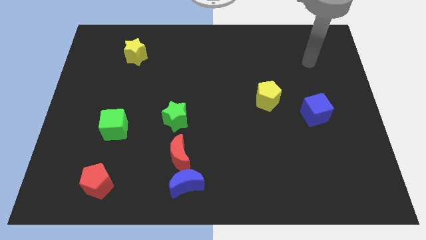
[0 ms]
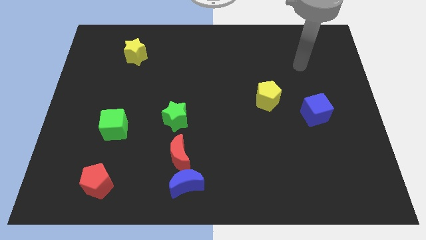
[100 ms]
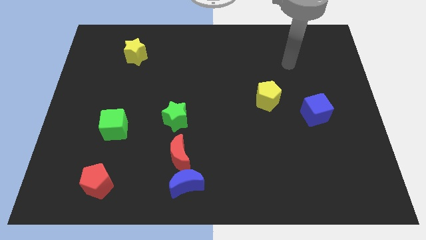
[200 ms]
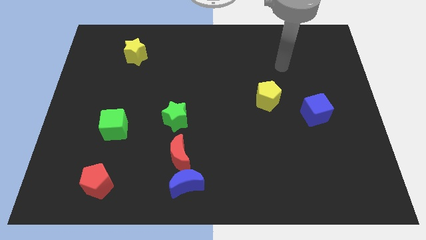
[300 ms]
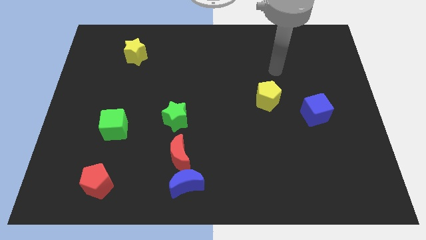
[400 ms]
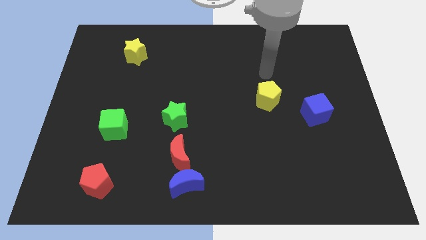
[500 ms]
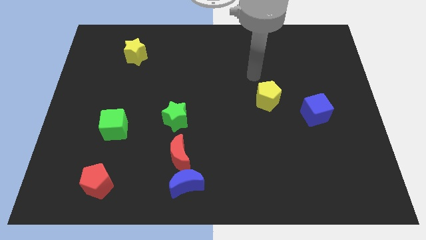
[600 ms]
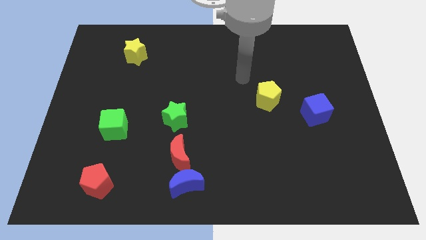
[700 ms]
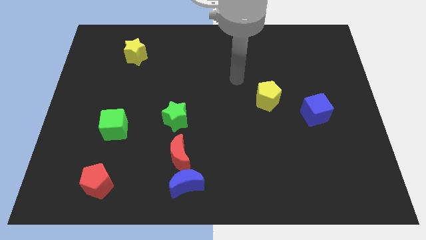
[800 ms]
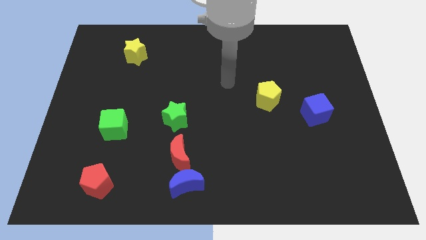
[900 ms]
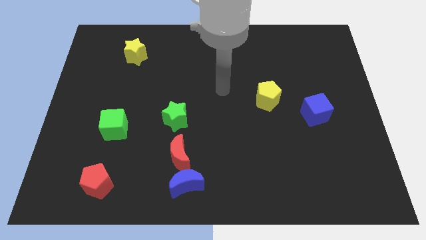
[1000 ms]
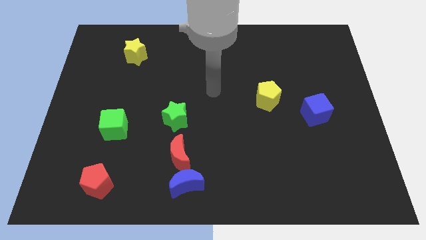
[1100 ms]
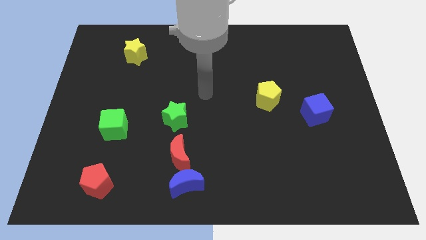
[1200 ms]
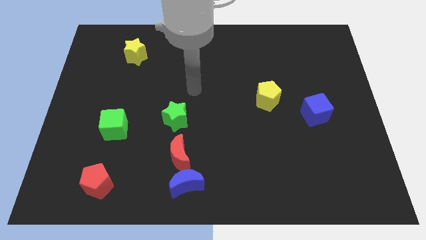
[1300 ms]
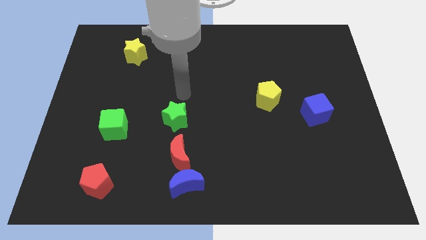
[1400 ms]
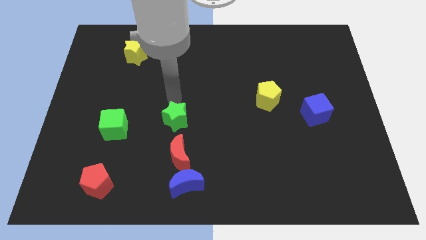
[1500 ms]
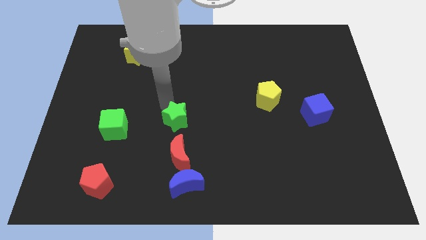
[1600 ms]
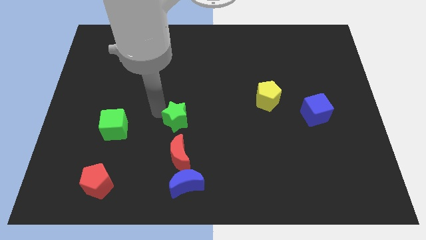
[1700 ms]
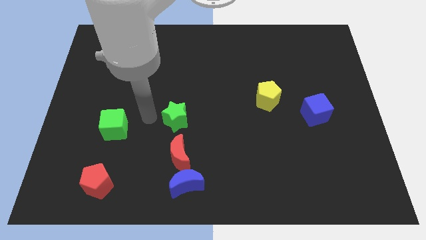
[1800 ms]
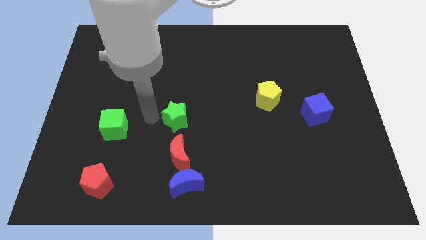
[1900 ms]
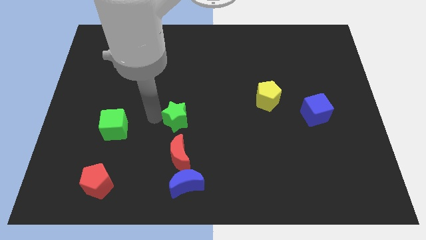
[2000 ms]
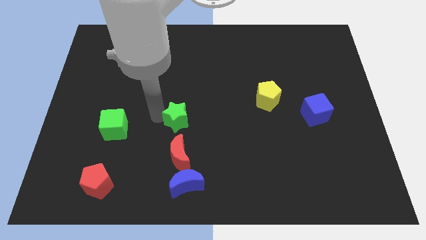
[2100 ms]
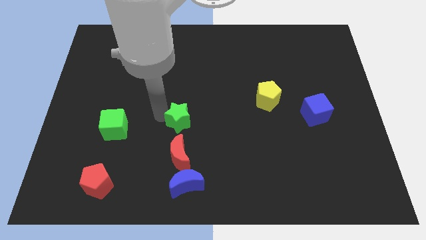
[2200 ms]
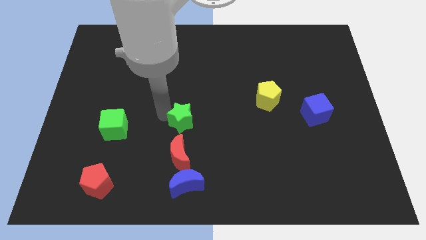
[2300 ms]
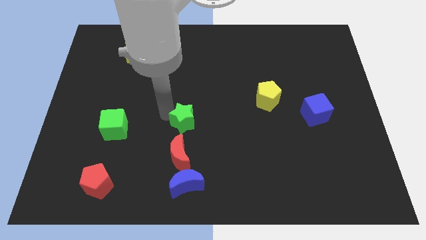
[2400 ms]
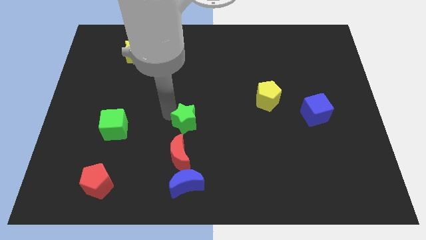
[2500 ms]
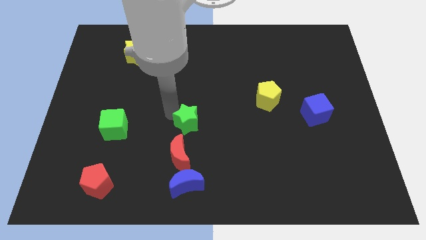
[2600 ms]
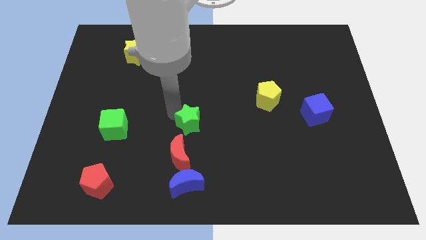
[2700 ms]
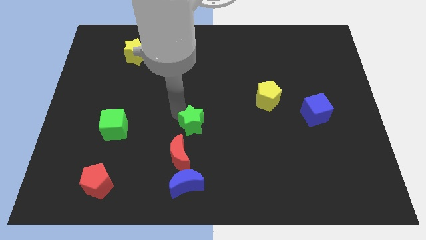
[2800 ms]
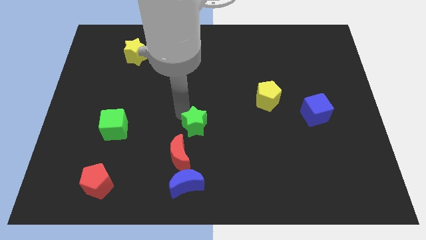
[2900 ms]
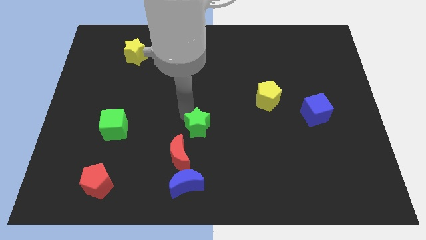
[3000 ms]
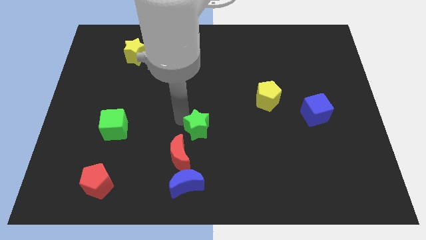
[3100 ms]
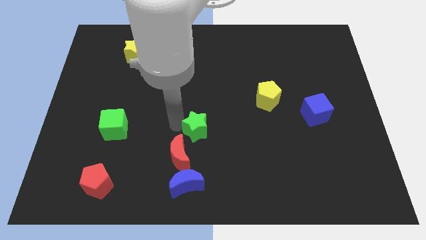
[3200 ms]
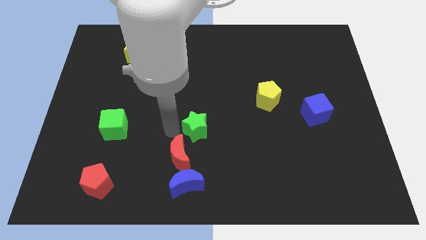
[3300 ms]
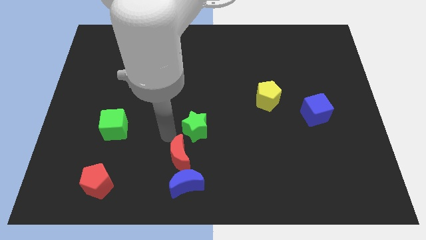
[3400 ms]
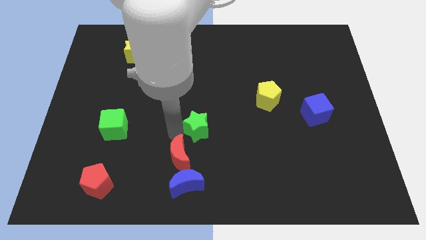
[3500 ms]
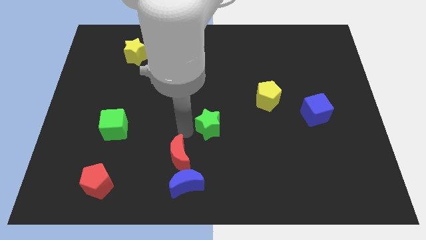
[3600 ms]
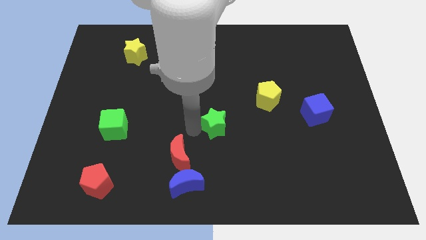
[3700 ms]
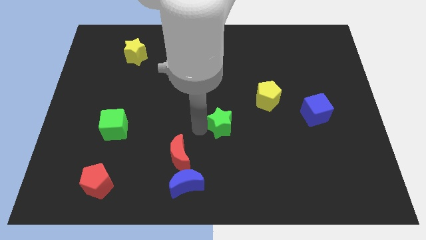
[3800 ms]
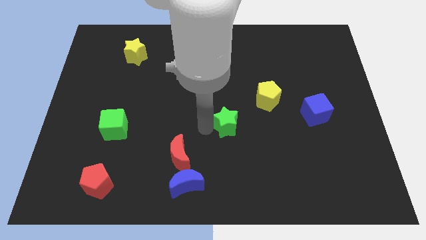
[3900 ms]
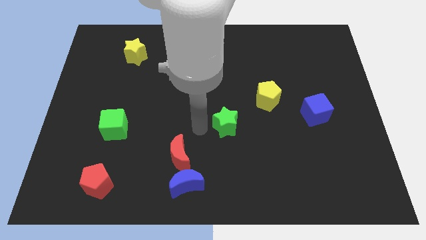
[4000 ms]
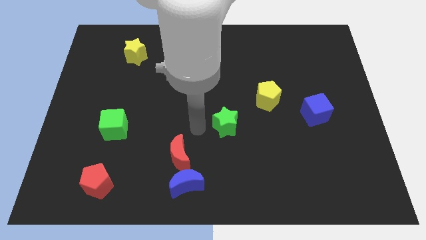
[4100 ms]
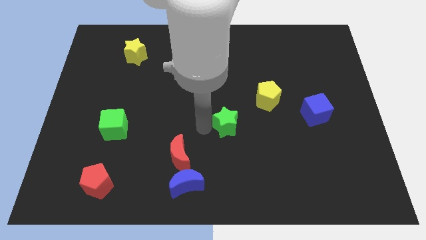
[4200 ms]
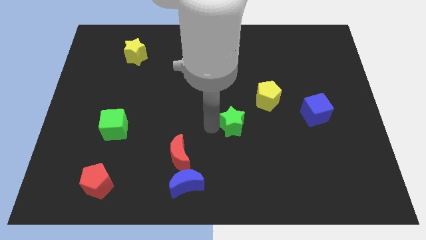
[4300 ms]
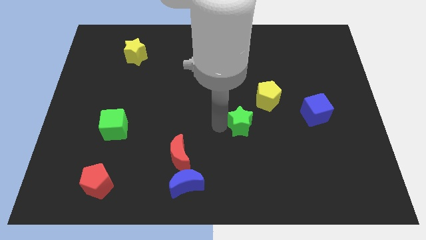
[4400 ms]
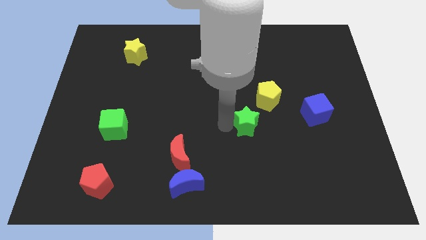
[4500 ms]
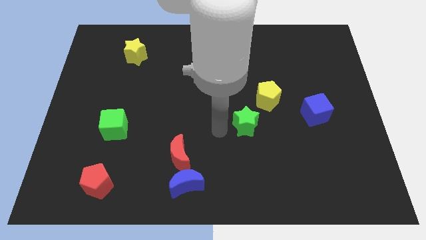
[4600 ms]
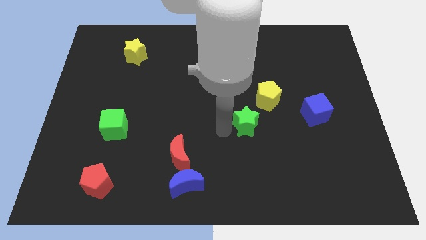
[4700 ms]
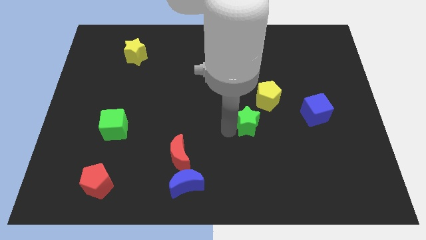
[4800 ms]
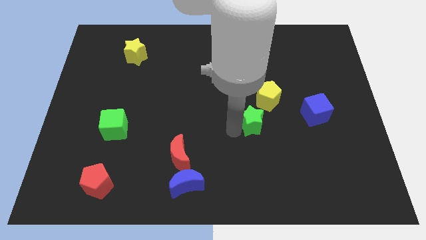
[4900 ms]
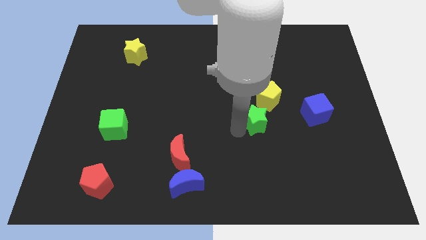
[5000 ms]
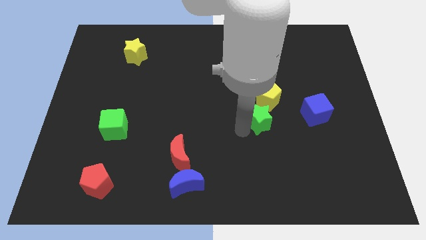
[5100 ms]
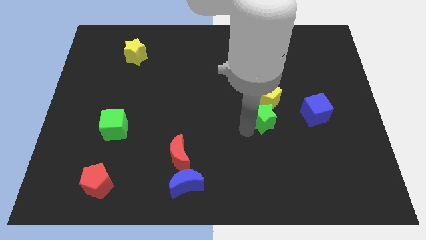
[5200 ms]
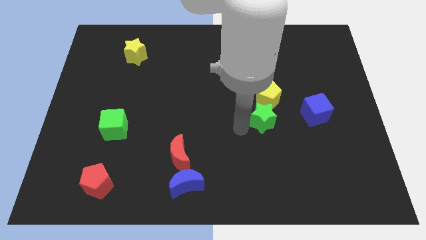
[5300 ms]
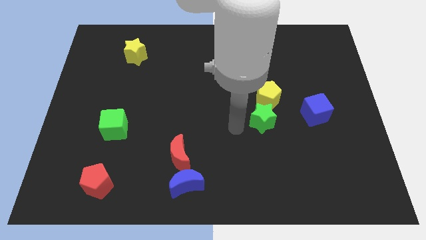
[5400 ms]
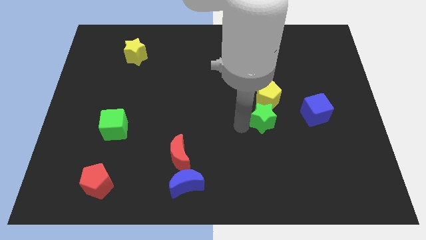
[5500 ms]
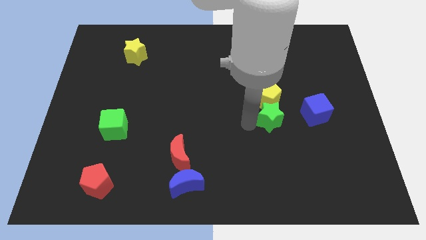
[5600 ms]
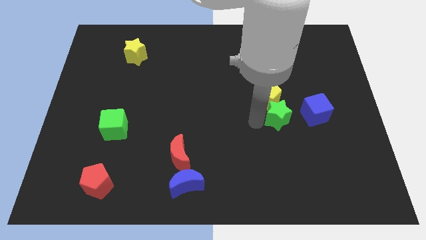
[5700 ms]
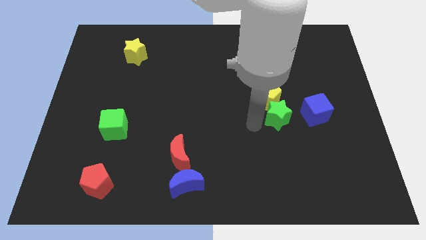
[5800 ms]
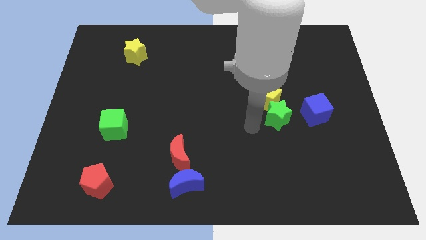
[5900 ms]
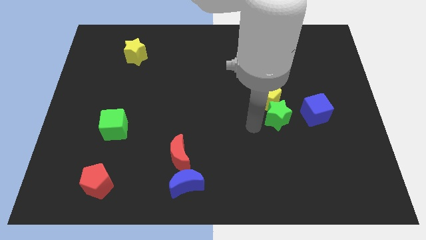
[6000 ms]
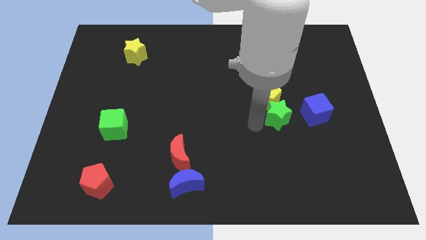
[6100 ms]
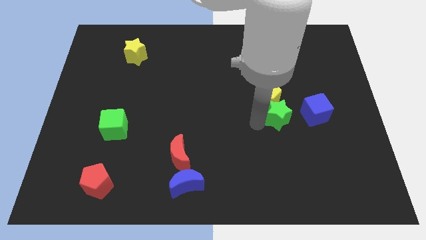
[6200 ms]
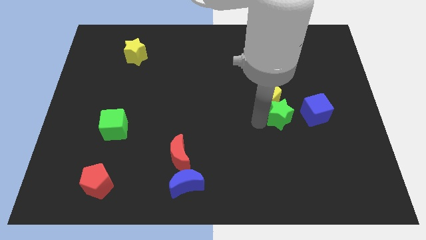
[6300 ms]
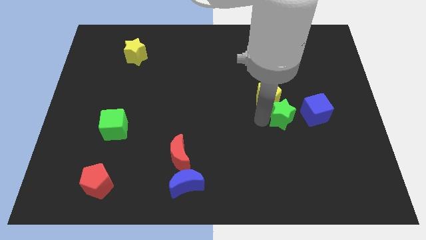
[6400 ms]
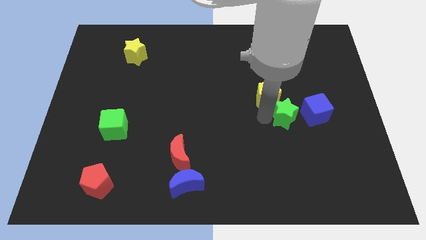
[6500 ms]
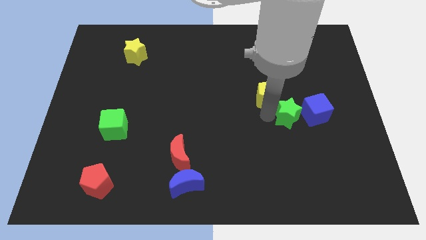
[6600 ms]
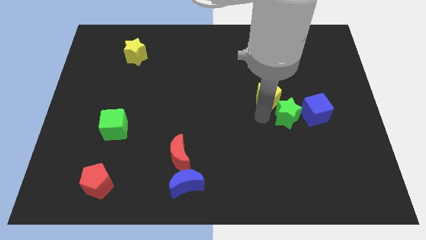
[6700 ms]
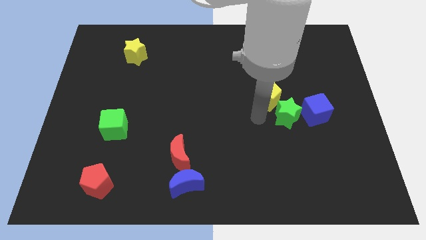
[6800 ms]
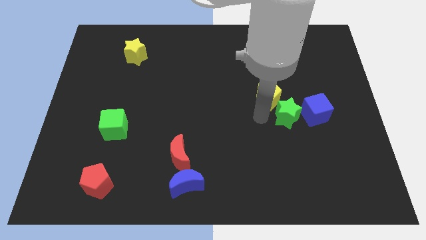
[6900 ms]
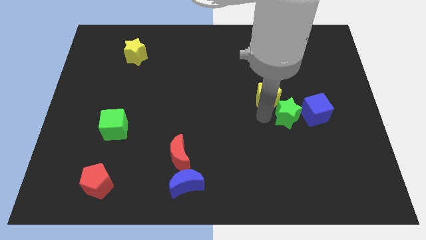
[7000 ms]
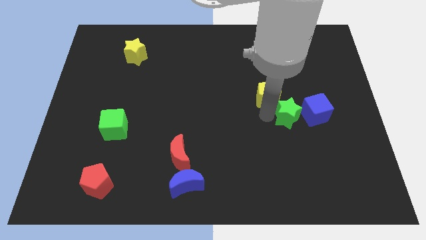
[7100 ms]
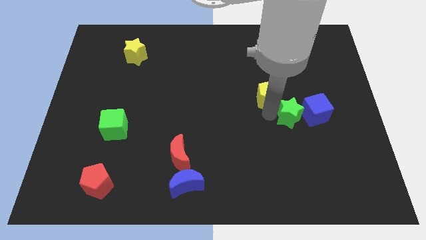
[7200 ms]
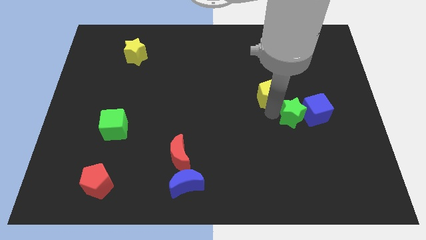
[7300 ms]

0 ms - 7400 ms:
push the green star close to the blue cube
